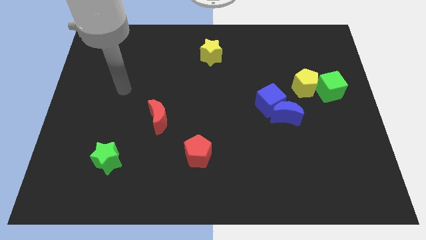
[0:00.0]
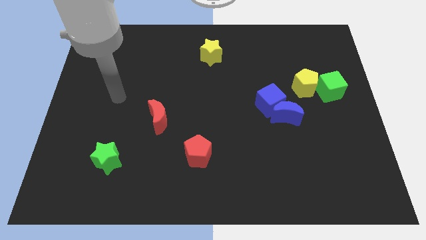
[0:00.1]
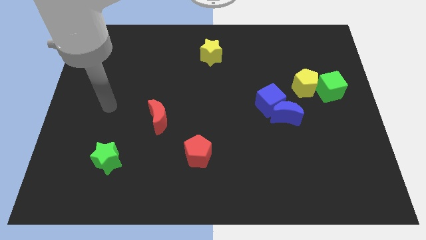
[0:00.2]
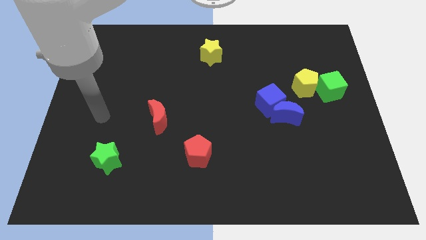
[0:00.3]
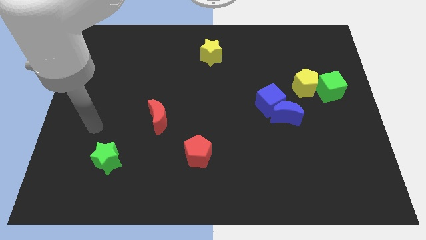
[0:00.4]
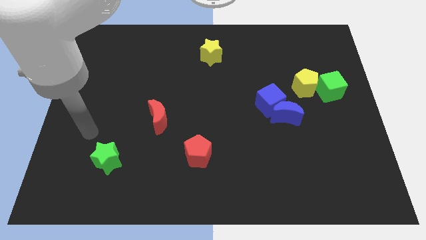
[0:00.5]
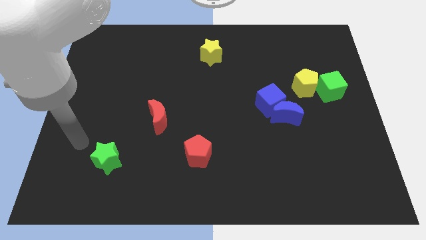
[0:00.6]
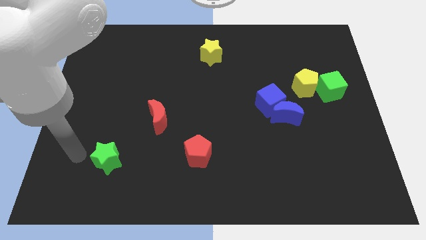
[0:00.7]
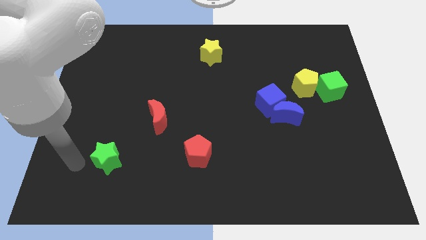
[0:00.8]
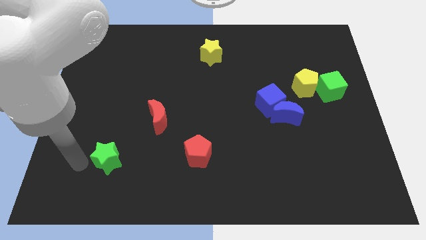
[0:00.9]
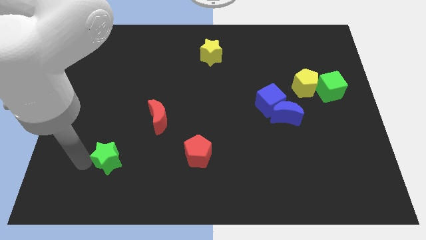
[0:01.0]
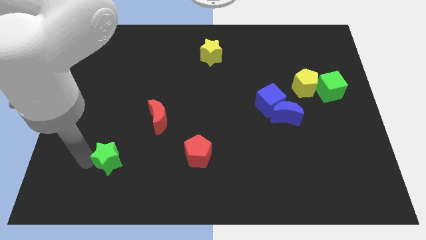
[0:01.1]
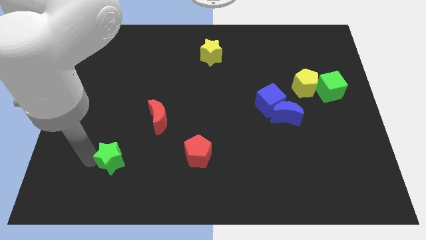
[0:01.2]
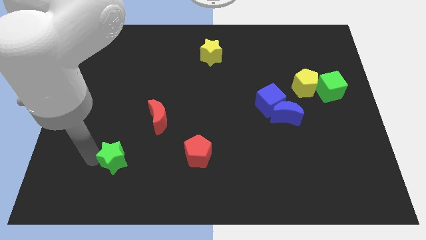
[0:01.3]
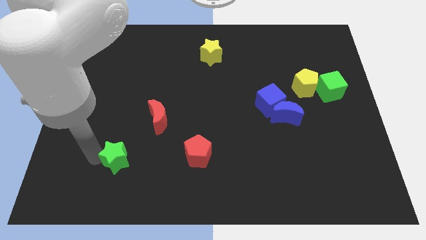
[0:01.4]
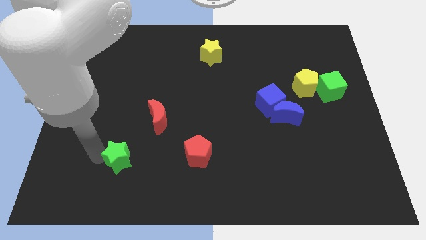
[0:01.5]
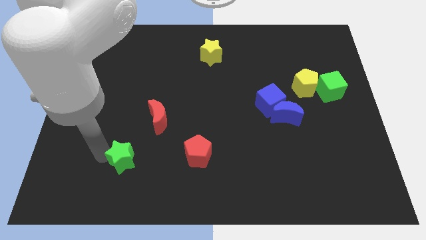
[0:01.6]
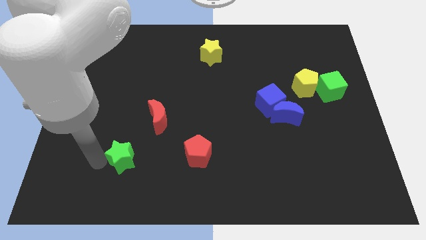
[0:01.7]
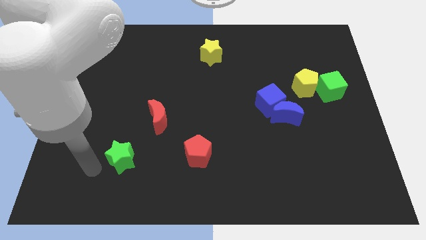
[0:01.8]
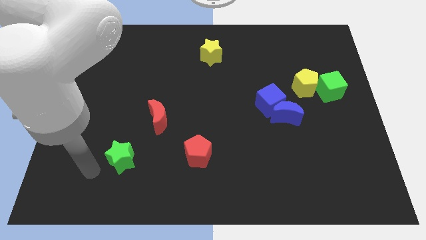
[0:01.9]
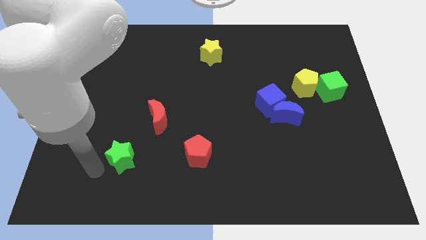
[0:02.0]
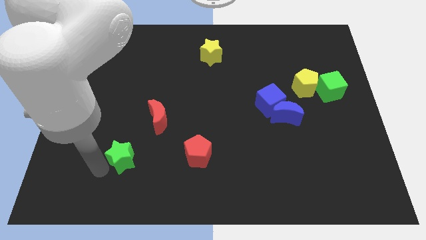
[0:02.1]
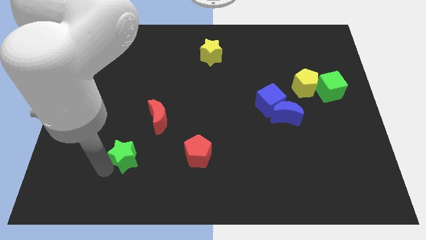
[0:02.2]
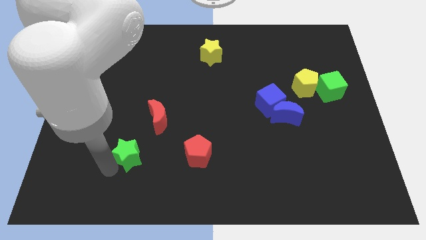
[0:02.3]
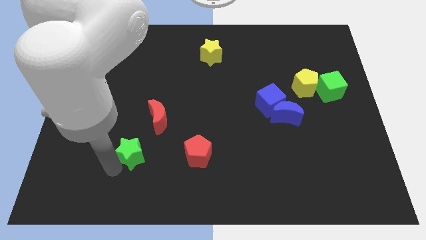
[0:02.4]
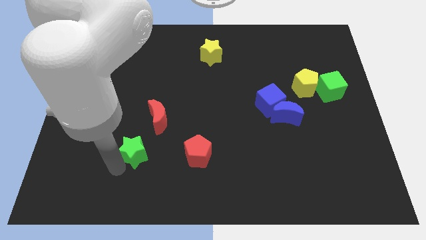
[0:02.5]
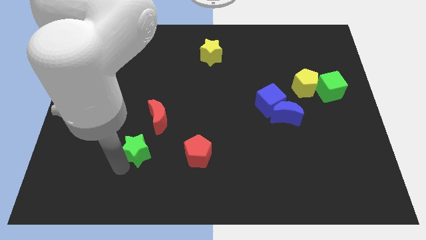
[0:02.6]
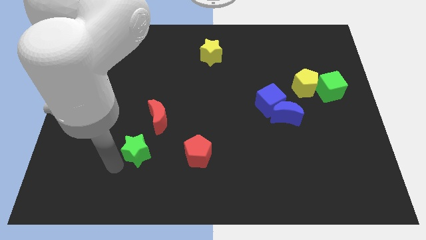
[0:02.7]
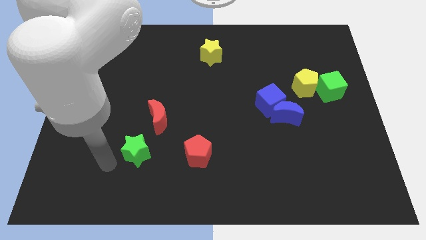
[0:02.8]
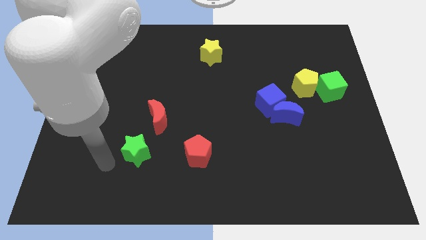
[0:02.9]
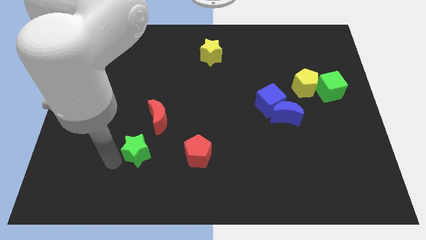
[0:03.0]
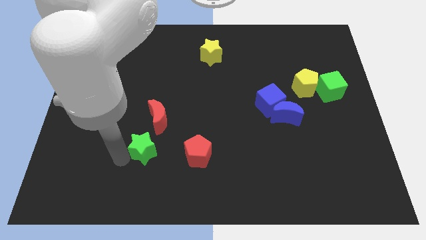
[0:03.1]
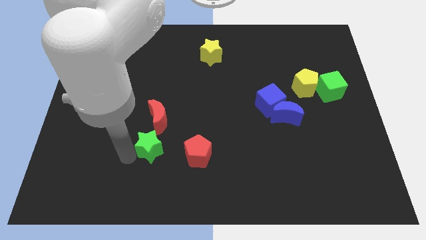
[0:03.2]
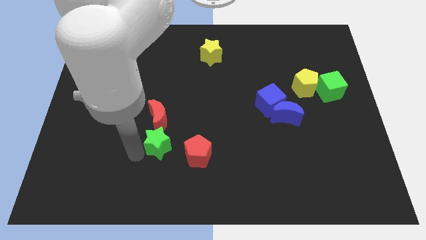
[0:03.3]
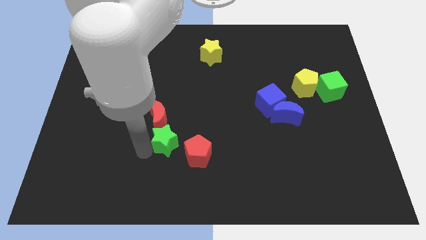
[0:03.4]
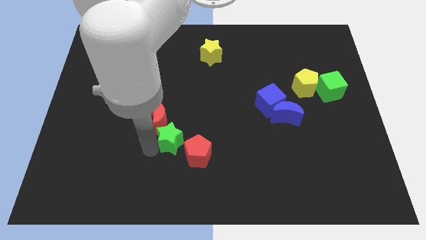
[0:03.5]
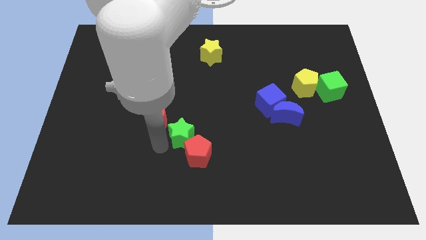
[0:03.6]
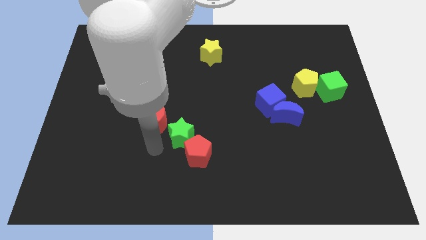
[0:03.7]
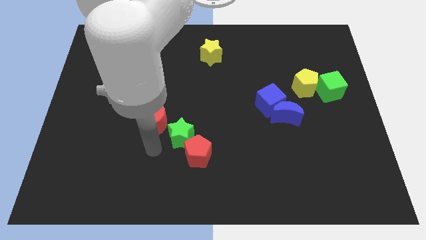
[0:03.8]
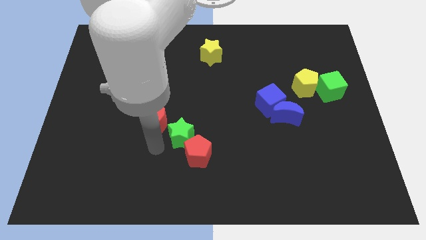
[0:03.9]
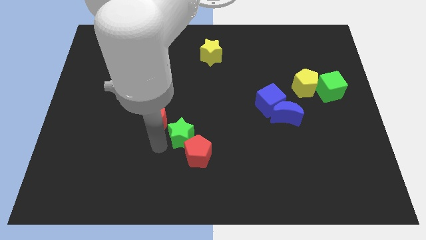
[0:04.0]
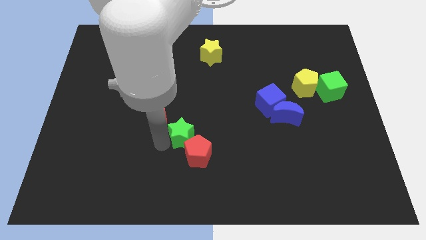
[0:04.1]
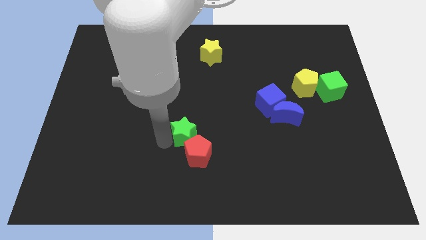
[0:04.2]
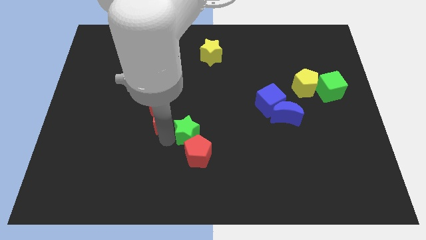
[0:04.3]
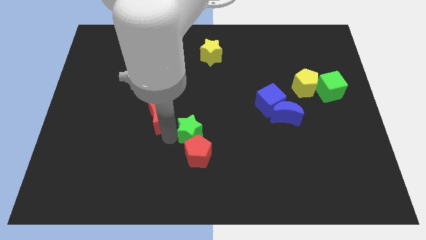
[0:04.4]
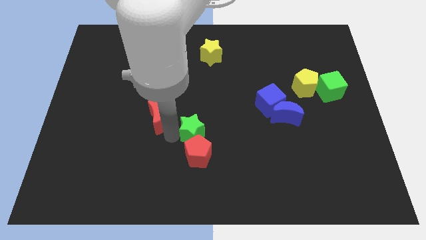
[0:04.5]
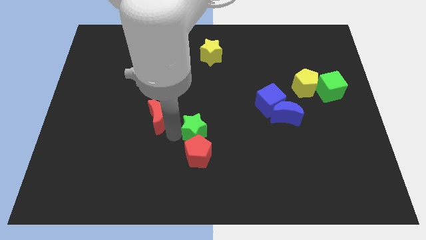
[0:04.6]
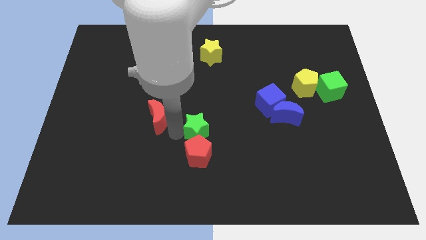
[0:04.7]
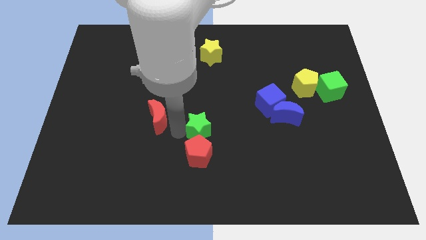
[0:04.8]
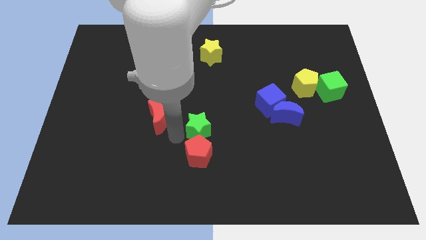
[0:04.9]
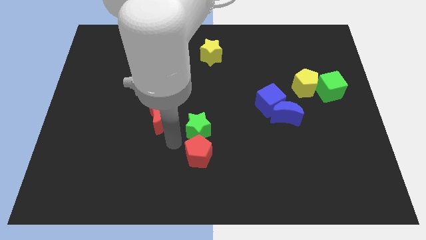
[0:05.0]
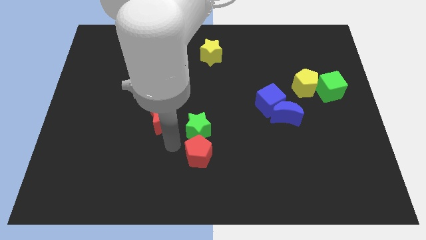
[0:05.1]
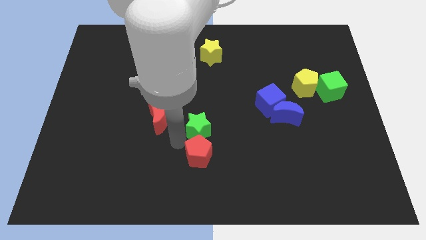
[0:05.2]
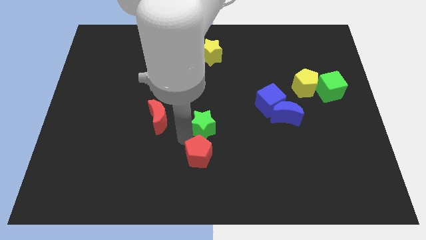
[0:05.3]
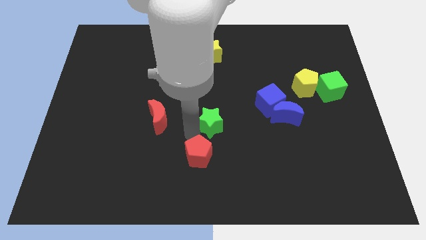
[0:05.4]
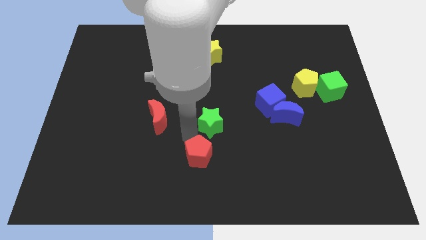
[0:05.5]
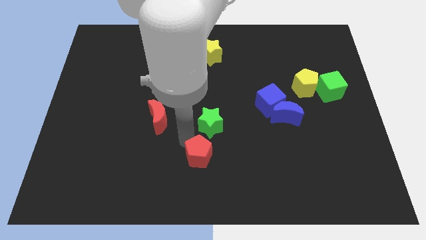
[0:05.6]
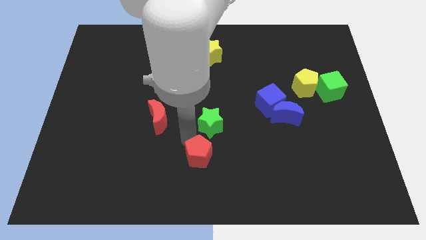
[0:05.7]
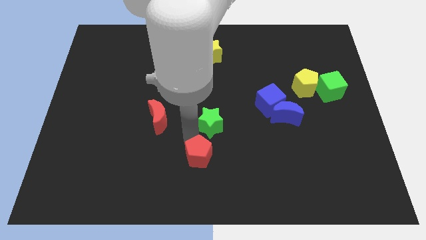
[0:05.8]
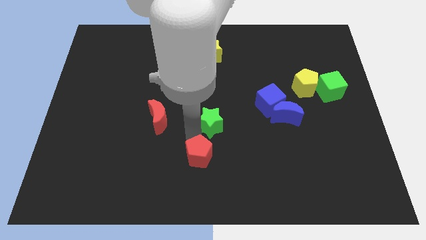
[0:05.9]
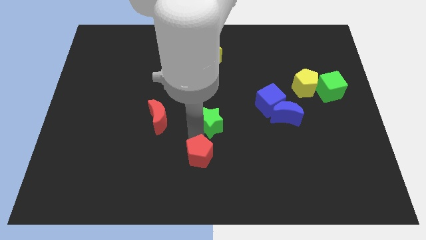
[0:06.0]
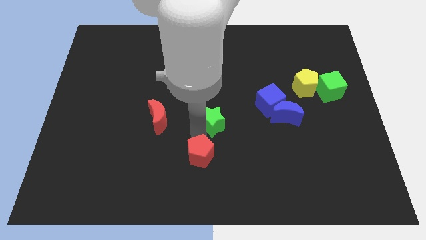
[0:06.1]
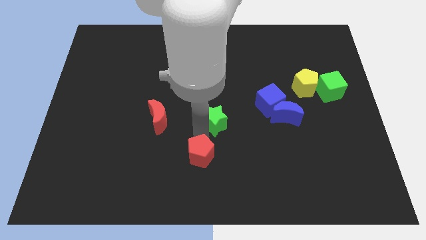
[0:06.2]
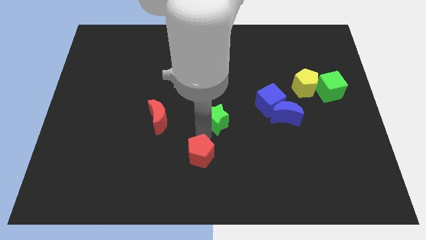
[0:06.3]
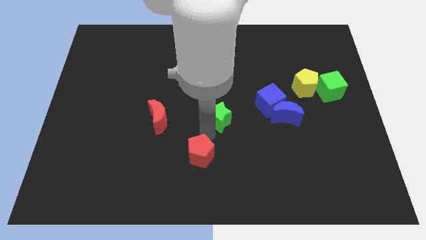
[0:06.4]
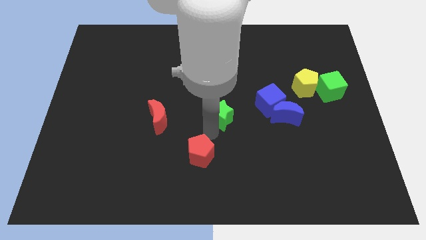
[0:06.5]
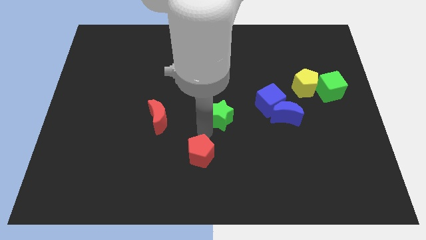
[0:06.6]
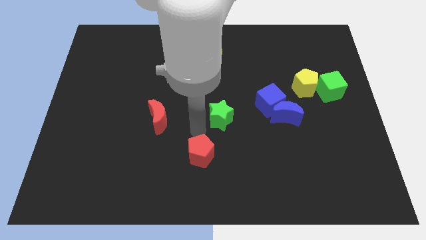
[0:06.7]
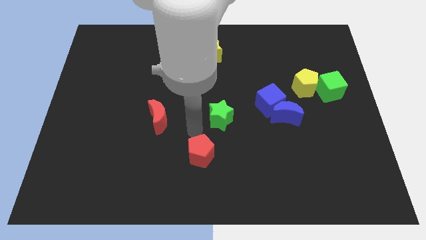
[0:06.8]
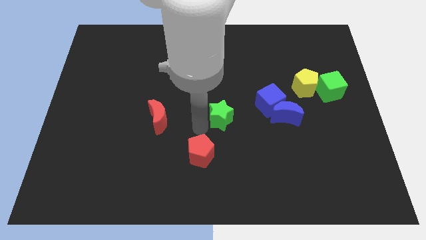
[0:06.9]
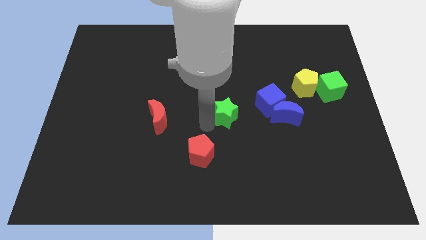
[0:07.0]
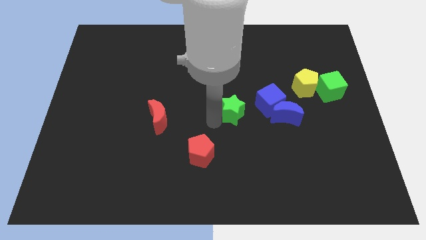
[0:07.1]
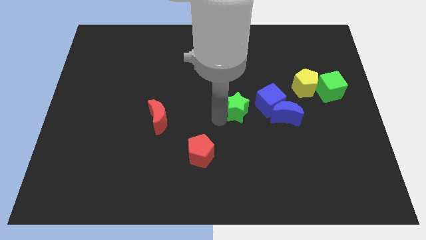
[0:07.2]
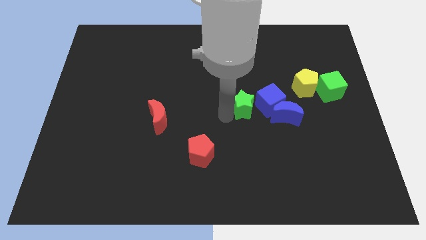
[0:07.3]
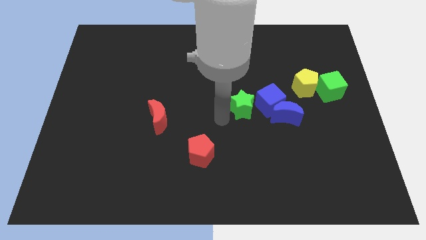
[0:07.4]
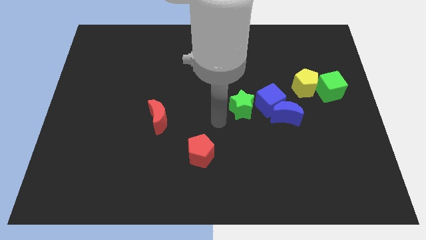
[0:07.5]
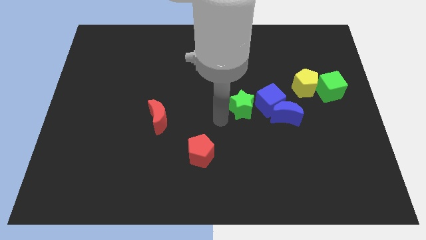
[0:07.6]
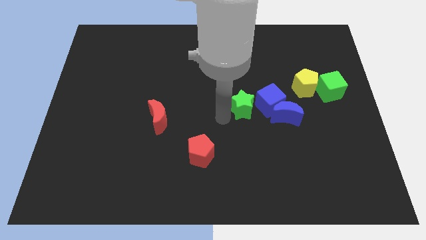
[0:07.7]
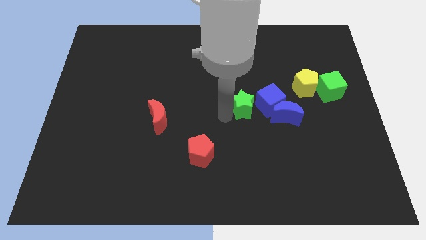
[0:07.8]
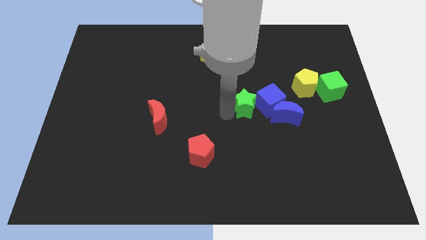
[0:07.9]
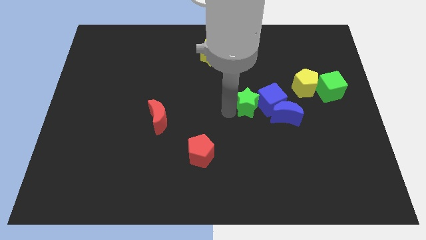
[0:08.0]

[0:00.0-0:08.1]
slide the green star to the top left side of the blue moon
